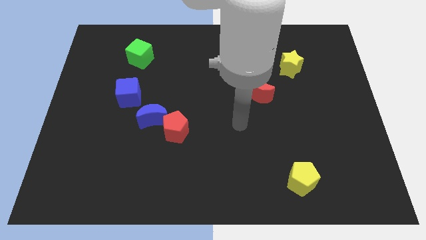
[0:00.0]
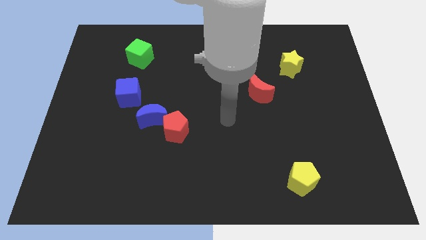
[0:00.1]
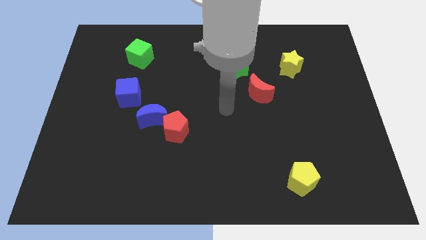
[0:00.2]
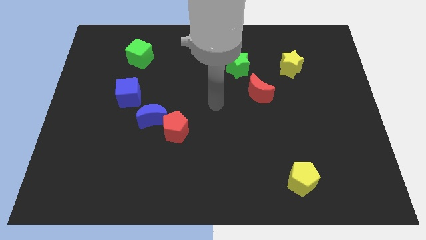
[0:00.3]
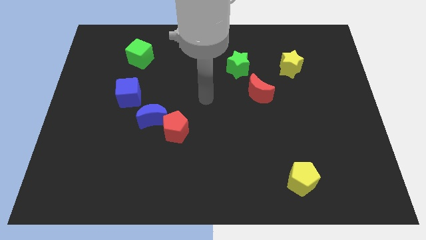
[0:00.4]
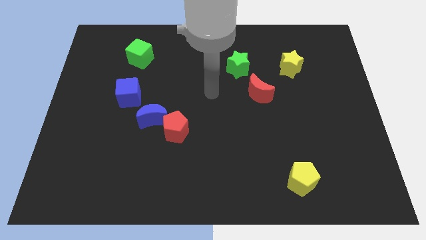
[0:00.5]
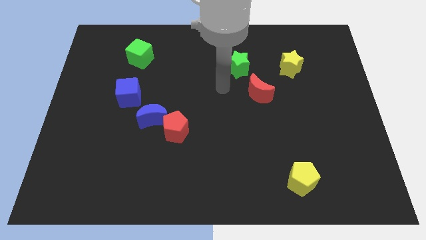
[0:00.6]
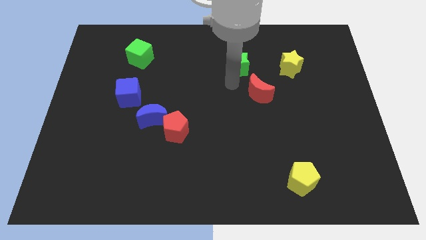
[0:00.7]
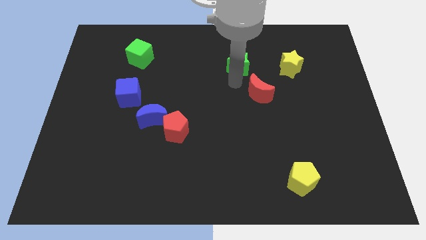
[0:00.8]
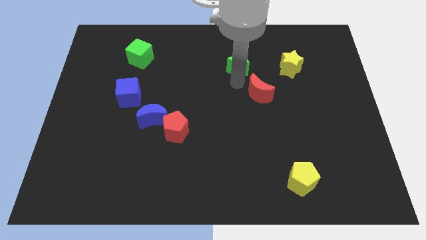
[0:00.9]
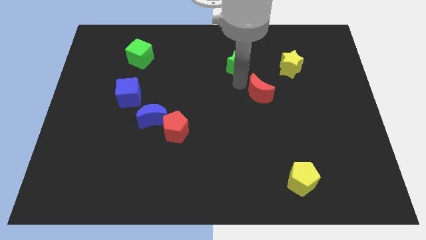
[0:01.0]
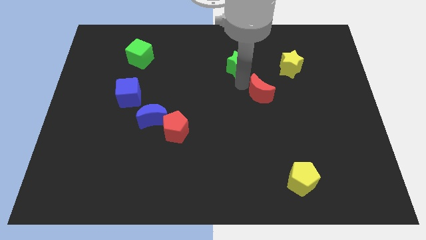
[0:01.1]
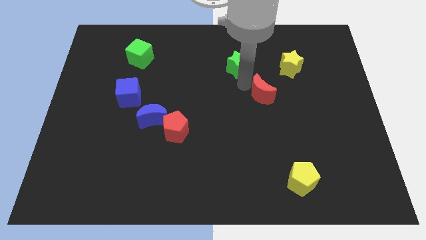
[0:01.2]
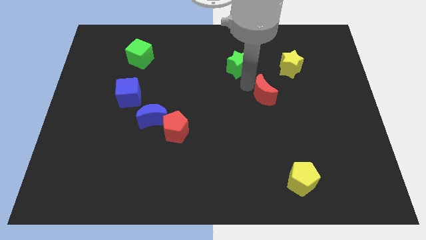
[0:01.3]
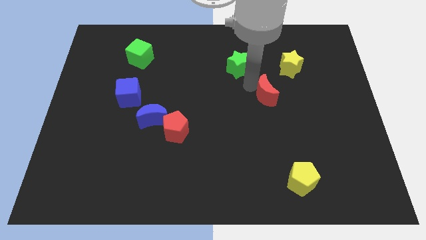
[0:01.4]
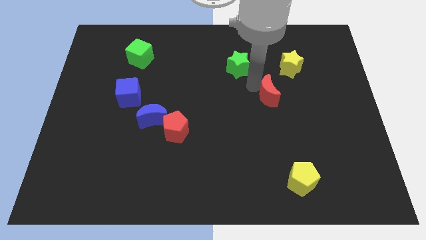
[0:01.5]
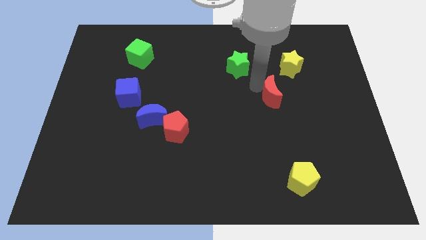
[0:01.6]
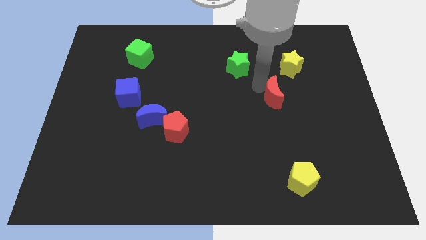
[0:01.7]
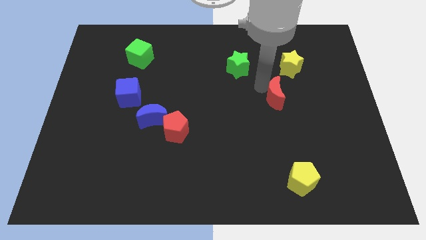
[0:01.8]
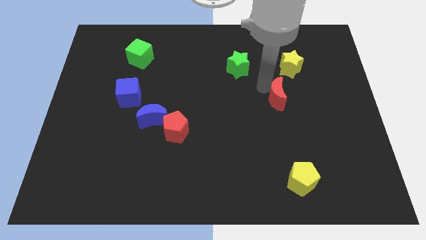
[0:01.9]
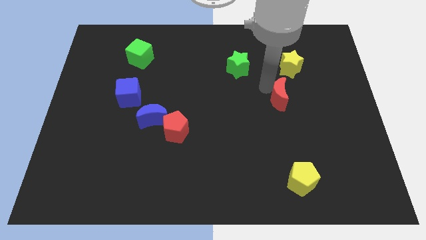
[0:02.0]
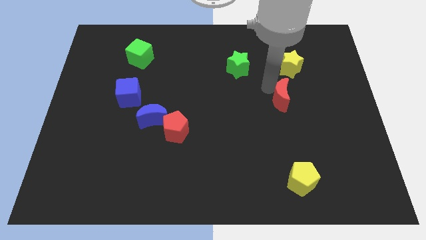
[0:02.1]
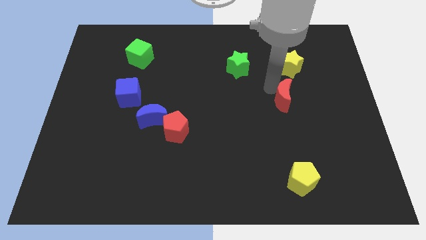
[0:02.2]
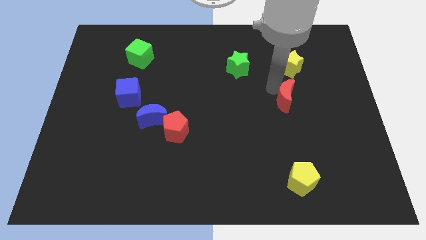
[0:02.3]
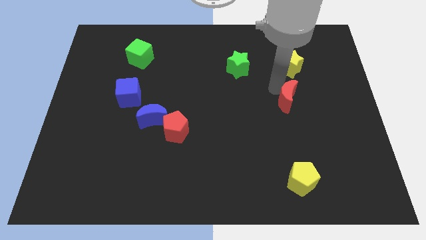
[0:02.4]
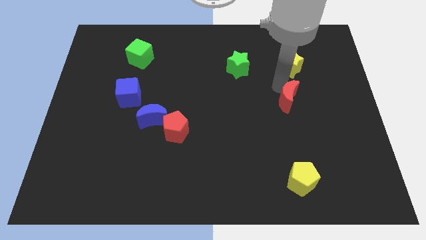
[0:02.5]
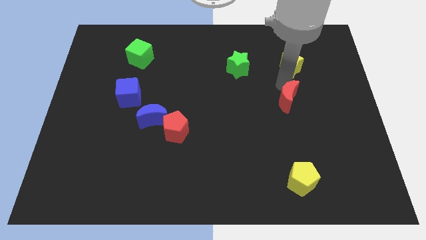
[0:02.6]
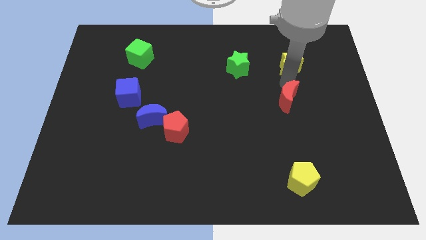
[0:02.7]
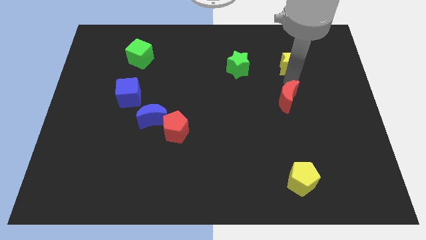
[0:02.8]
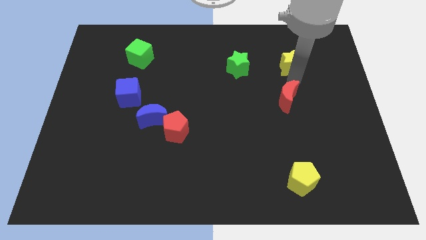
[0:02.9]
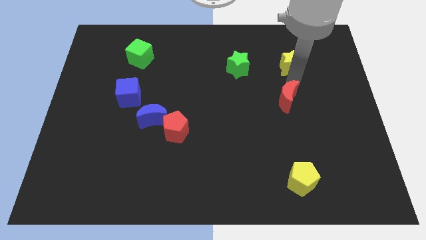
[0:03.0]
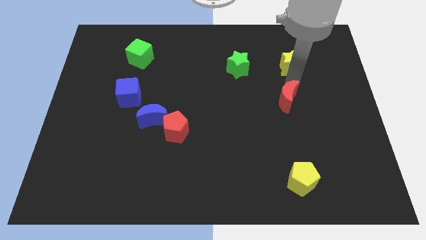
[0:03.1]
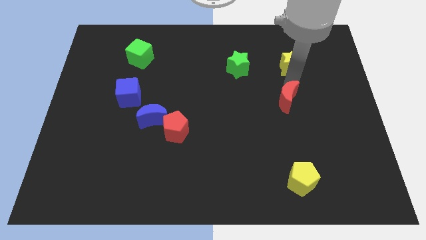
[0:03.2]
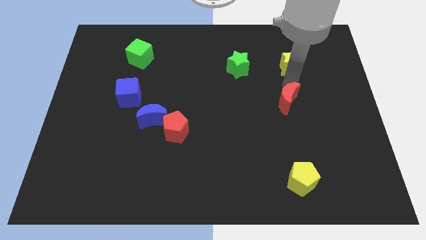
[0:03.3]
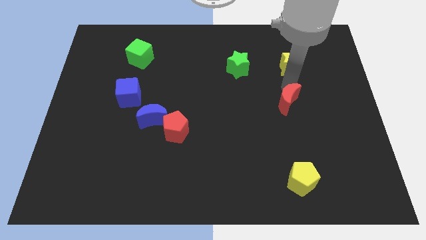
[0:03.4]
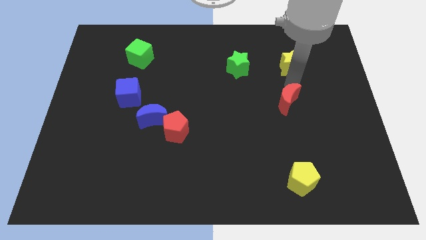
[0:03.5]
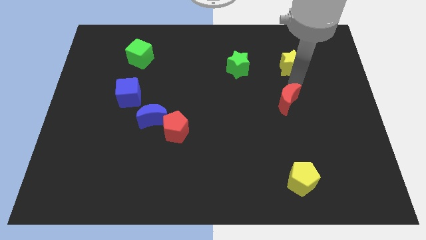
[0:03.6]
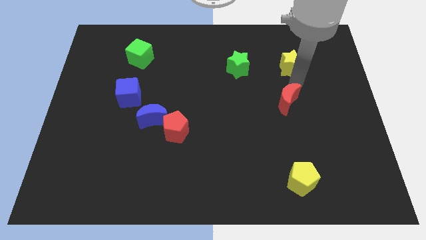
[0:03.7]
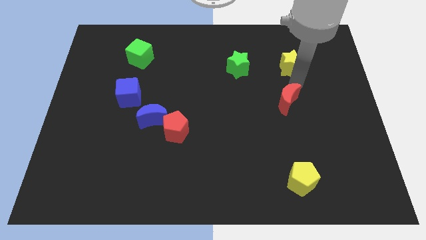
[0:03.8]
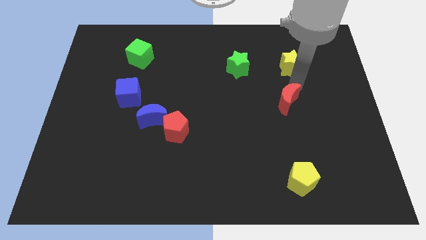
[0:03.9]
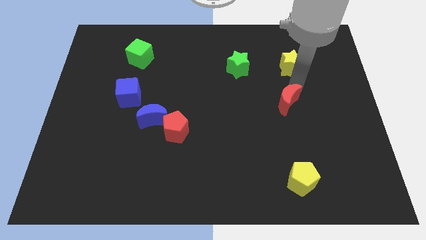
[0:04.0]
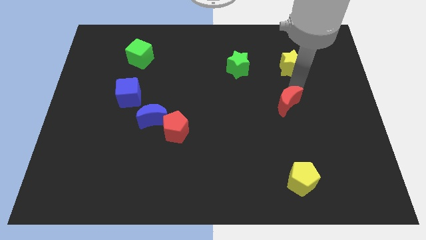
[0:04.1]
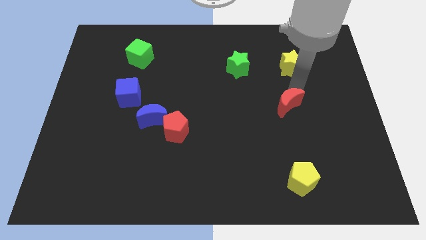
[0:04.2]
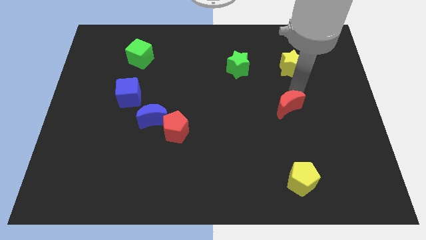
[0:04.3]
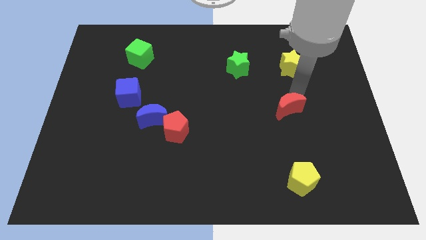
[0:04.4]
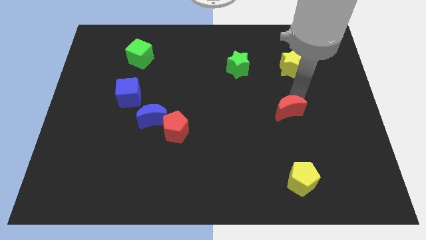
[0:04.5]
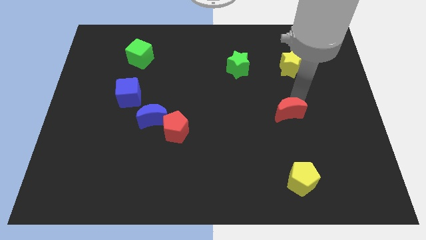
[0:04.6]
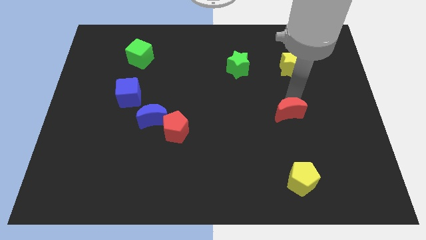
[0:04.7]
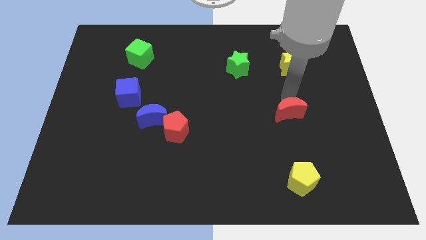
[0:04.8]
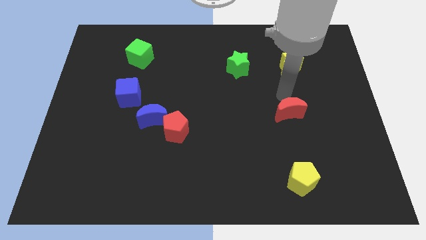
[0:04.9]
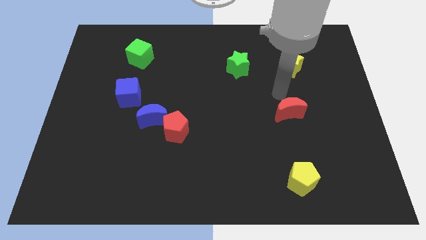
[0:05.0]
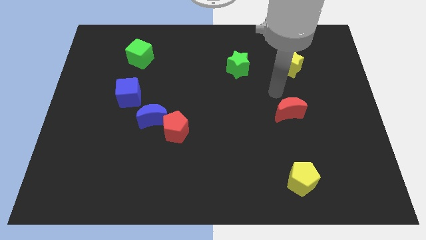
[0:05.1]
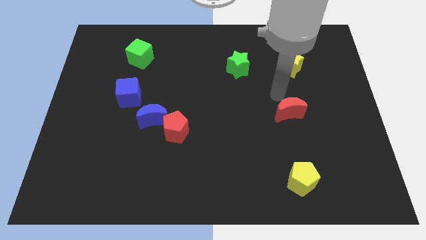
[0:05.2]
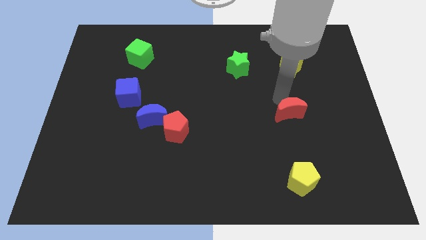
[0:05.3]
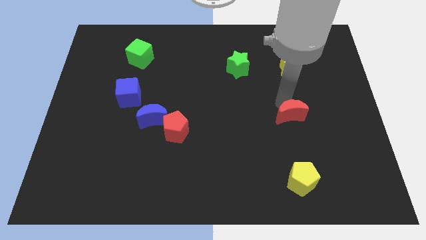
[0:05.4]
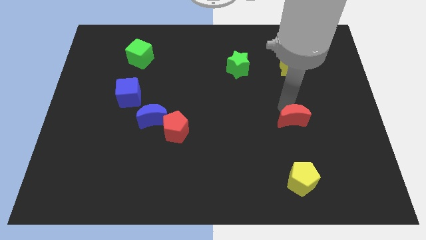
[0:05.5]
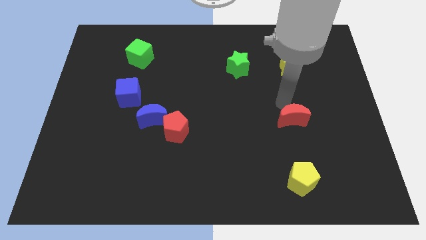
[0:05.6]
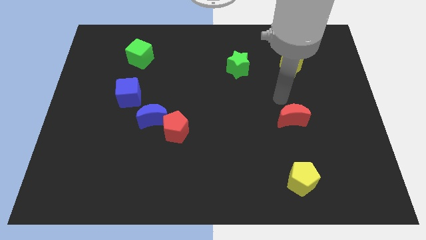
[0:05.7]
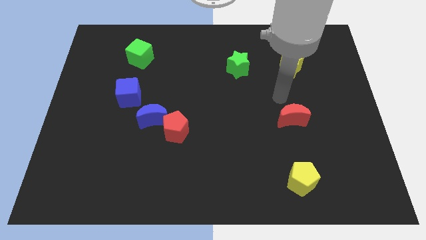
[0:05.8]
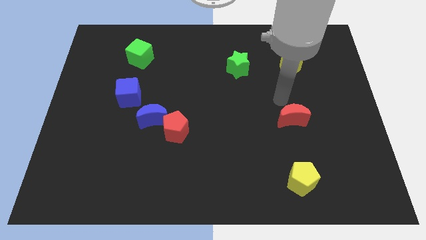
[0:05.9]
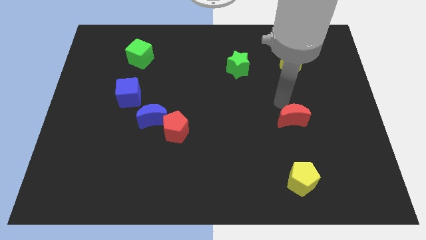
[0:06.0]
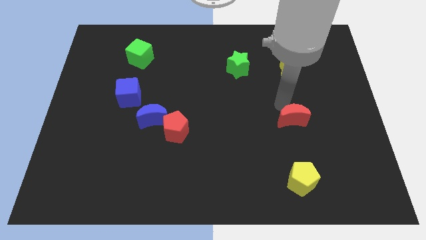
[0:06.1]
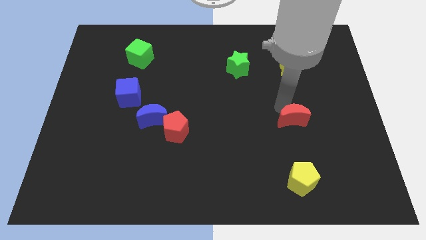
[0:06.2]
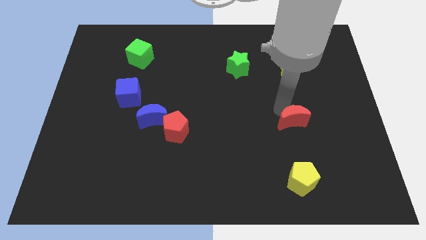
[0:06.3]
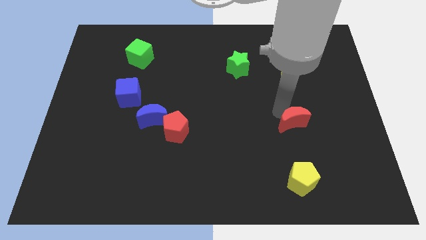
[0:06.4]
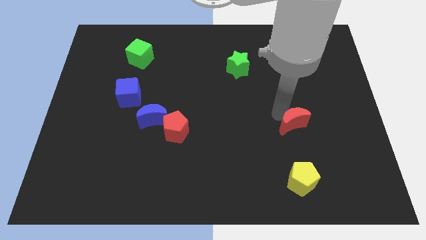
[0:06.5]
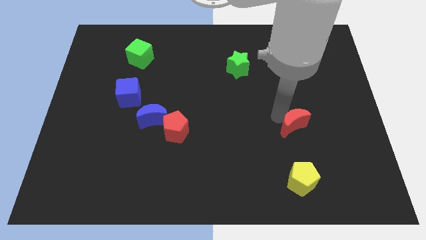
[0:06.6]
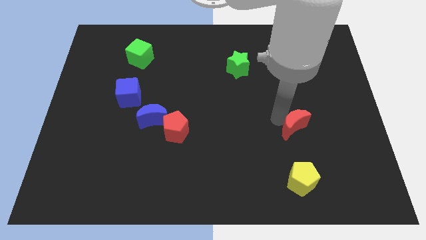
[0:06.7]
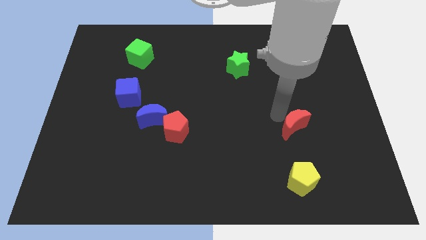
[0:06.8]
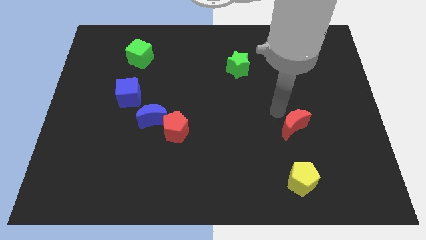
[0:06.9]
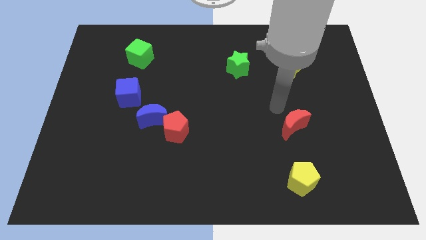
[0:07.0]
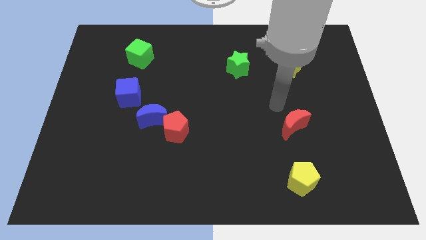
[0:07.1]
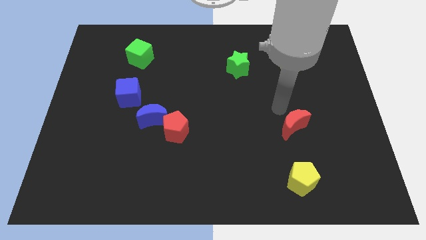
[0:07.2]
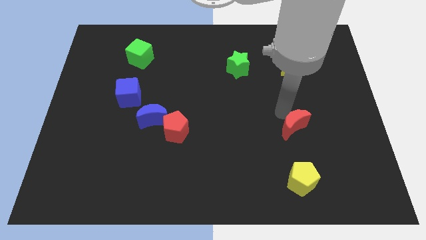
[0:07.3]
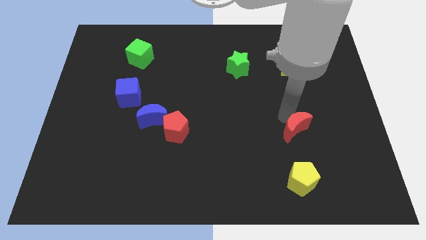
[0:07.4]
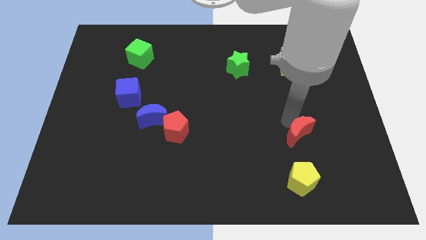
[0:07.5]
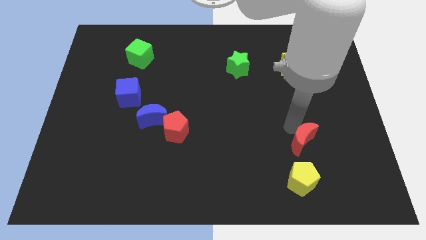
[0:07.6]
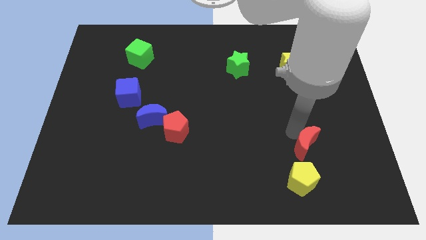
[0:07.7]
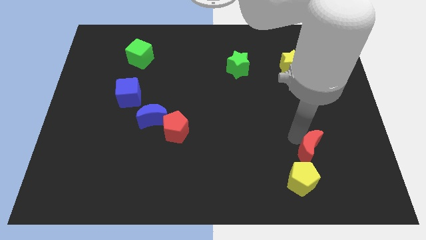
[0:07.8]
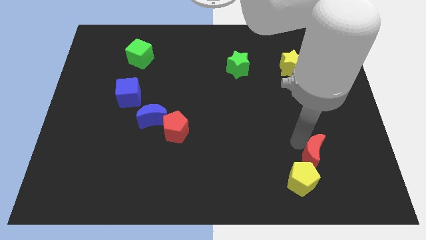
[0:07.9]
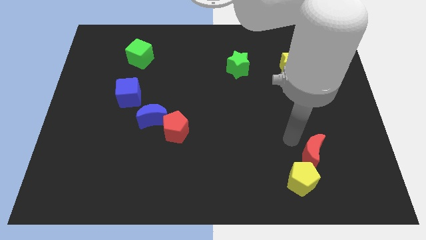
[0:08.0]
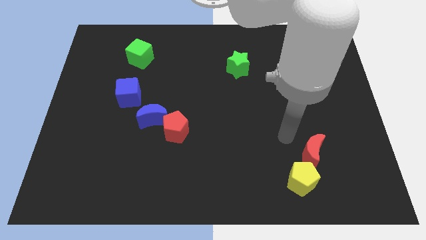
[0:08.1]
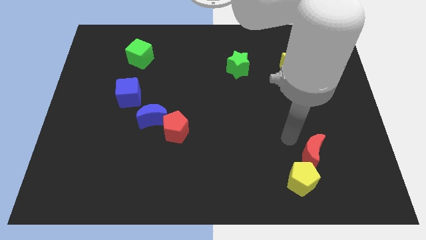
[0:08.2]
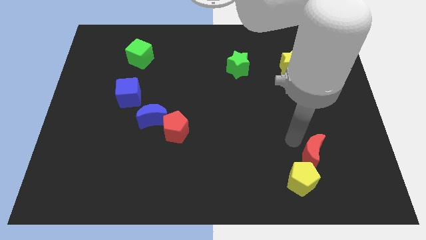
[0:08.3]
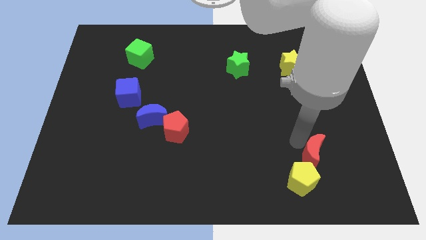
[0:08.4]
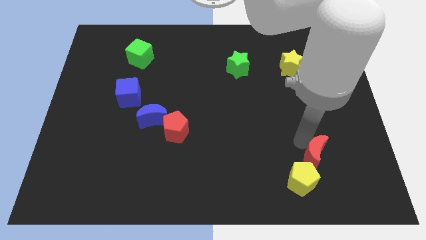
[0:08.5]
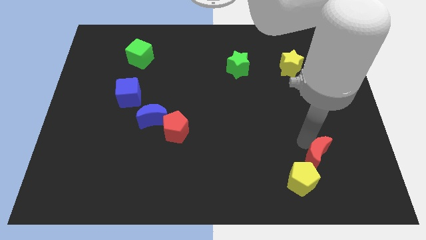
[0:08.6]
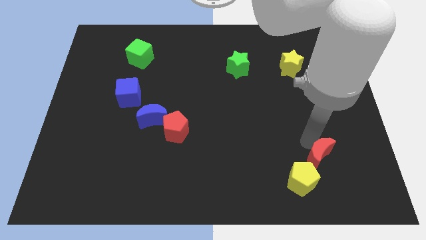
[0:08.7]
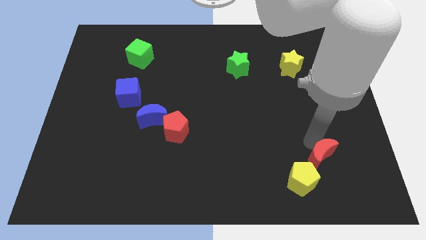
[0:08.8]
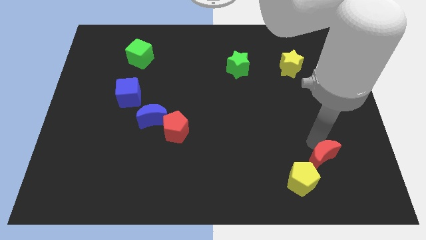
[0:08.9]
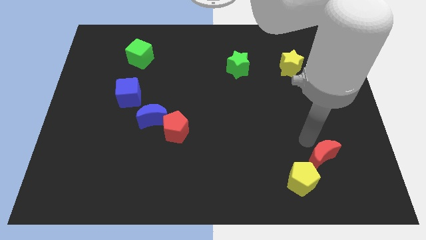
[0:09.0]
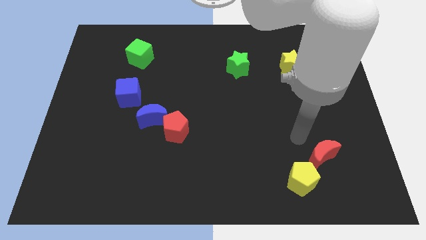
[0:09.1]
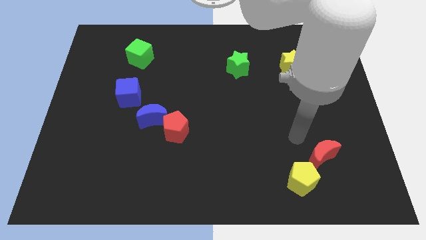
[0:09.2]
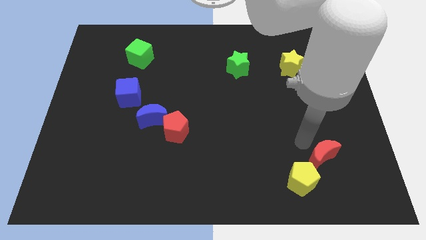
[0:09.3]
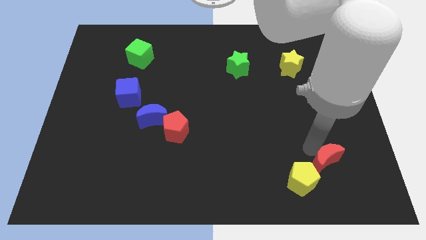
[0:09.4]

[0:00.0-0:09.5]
slide the red moon right of the yellow pentagon
